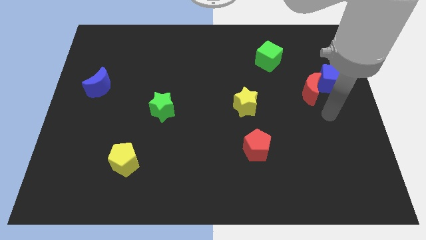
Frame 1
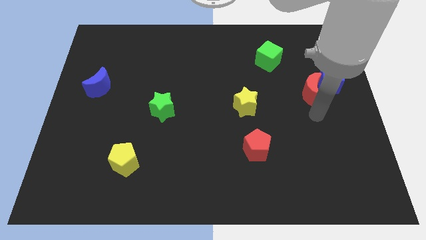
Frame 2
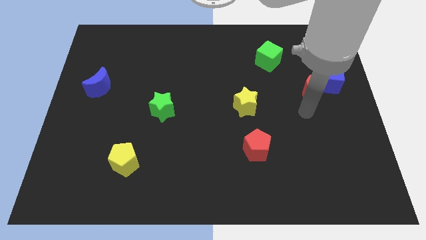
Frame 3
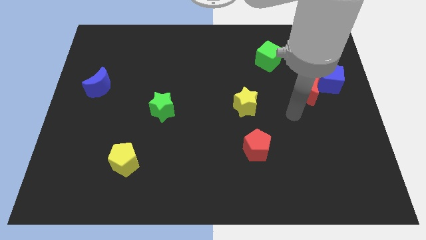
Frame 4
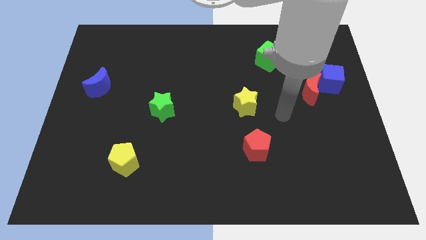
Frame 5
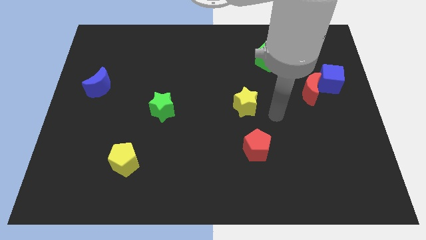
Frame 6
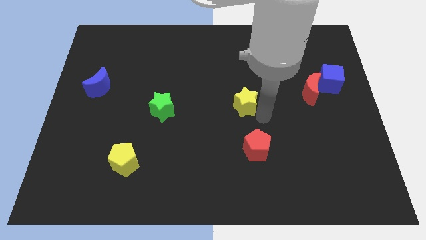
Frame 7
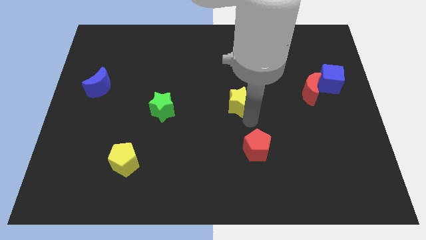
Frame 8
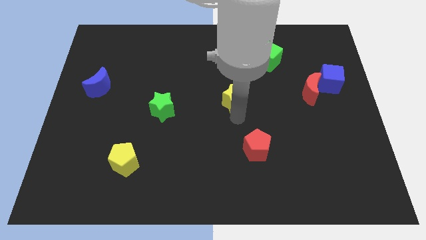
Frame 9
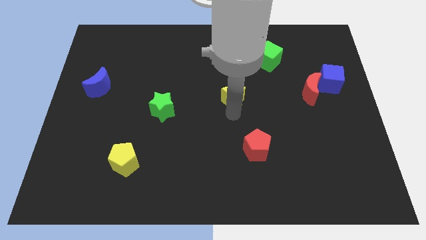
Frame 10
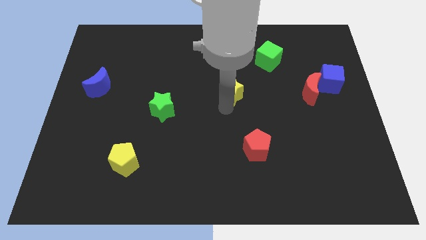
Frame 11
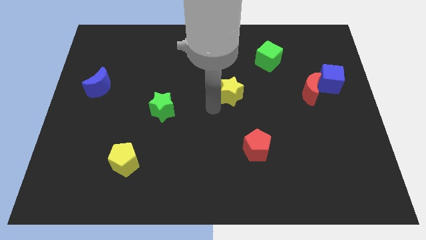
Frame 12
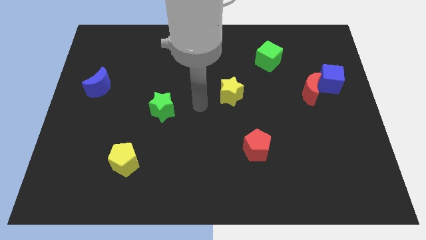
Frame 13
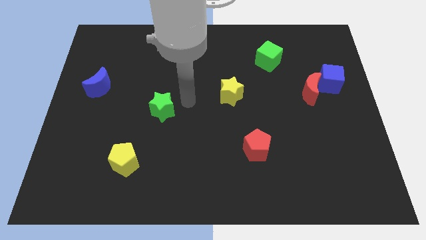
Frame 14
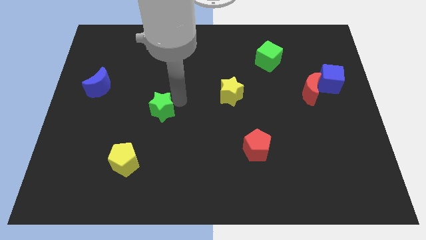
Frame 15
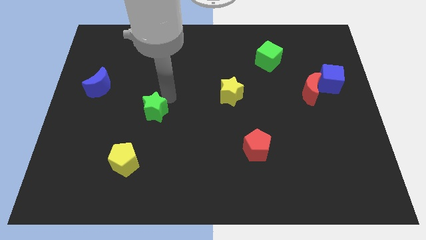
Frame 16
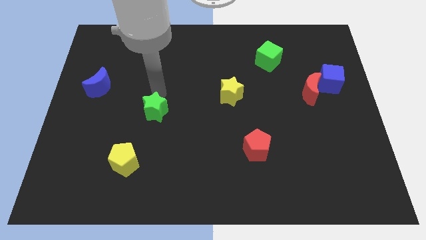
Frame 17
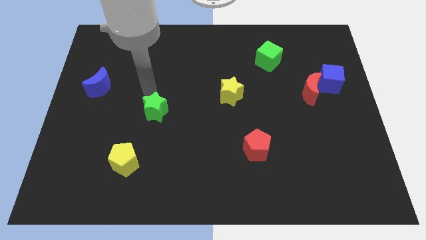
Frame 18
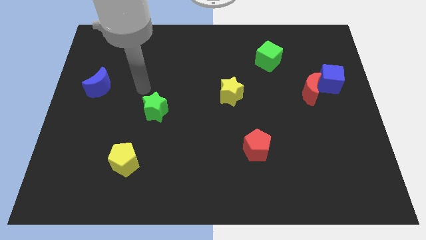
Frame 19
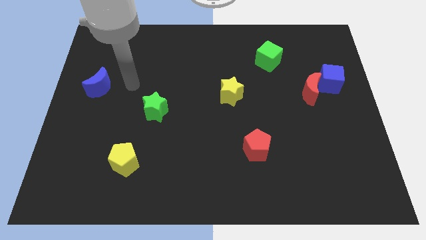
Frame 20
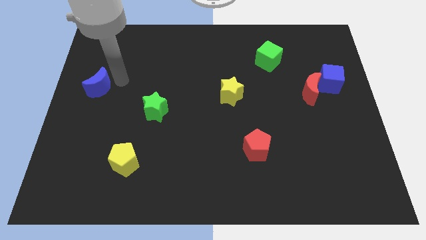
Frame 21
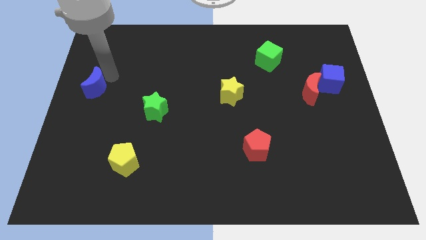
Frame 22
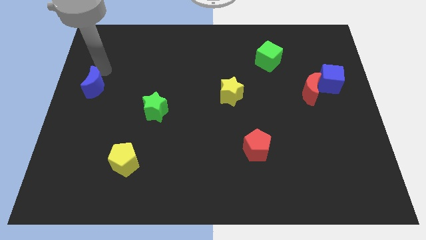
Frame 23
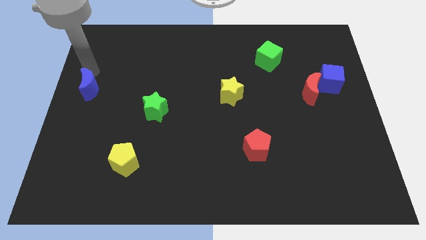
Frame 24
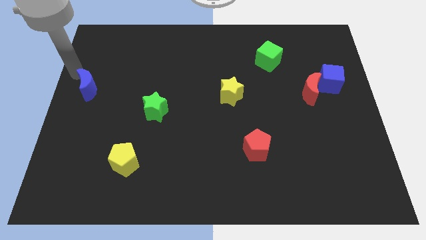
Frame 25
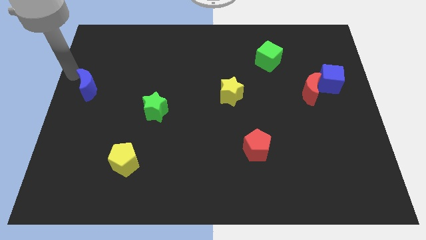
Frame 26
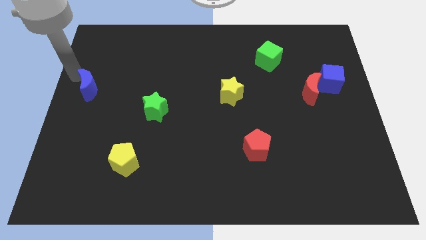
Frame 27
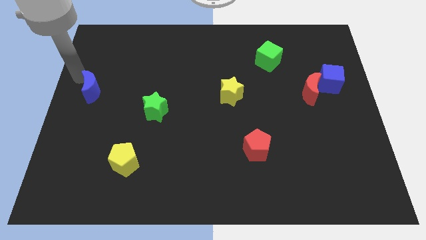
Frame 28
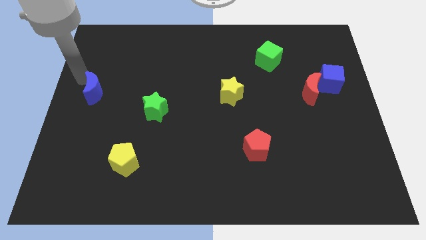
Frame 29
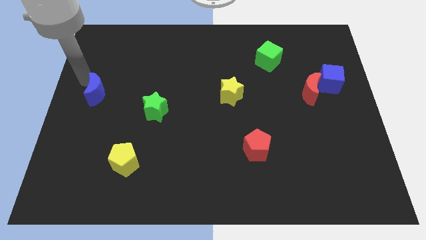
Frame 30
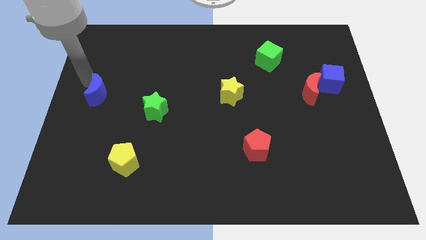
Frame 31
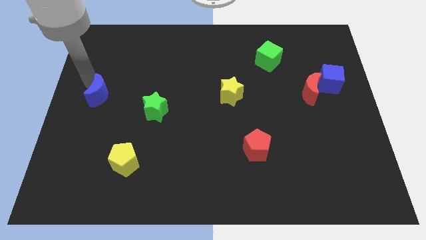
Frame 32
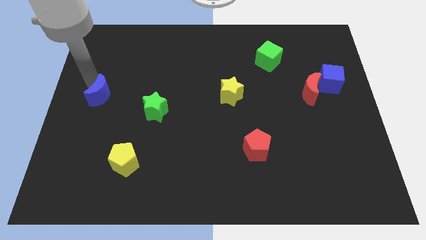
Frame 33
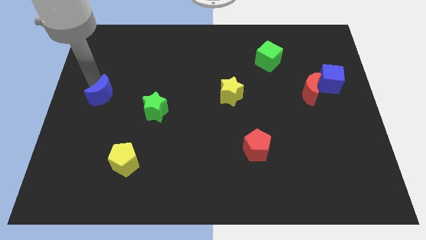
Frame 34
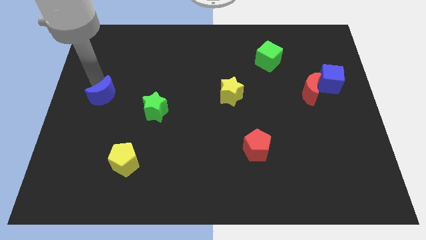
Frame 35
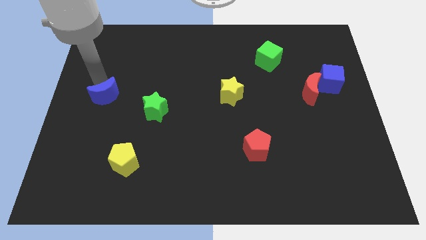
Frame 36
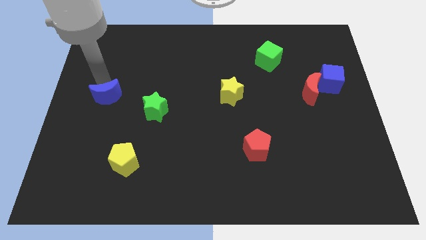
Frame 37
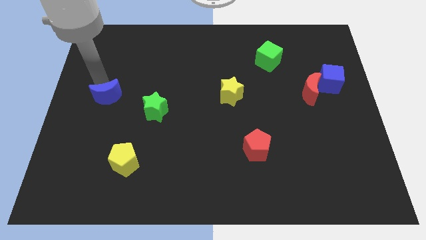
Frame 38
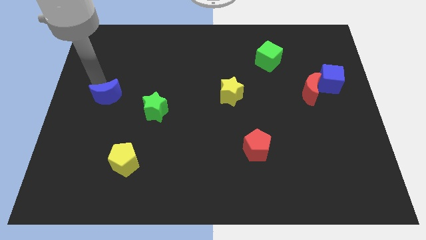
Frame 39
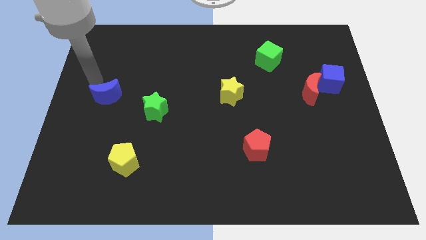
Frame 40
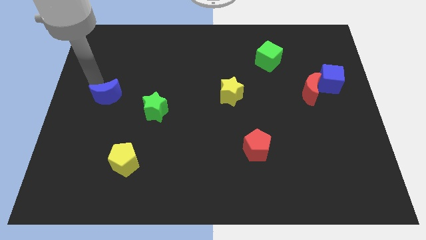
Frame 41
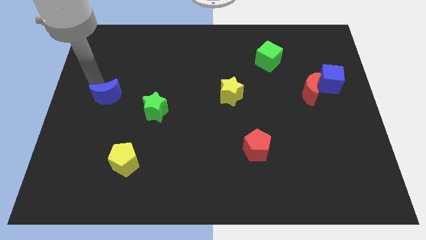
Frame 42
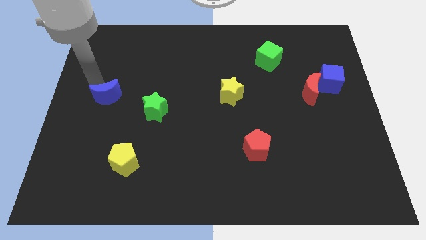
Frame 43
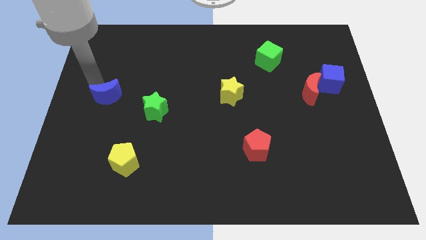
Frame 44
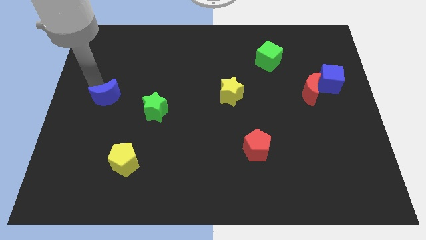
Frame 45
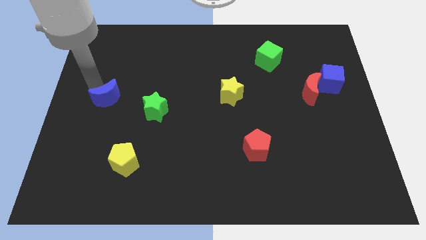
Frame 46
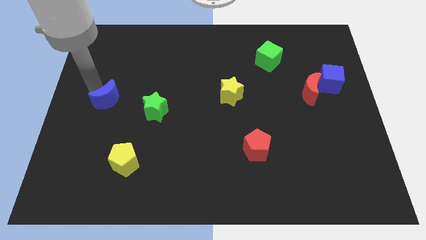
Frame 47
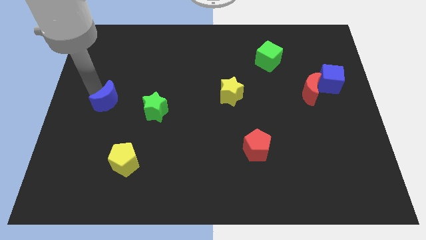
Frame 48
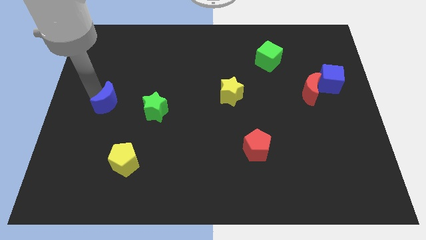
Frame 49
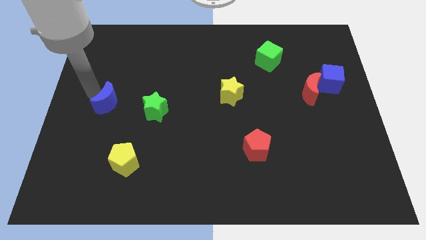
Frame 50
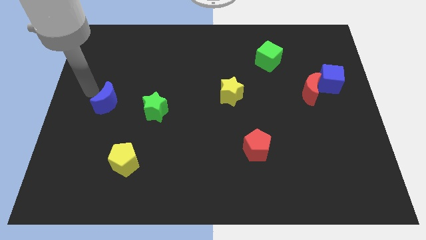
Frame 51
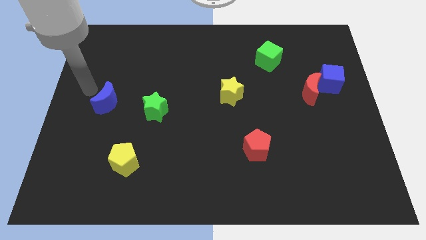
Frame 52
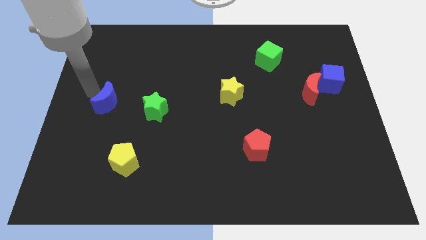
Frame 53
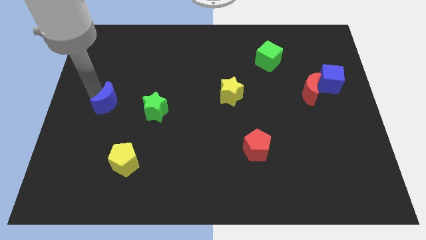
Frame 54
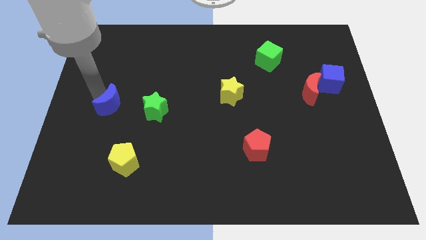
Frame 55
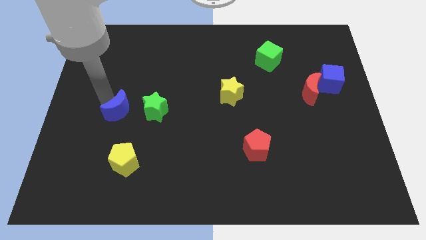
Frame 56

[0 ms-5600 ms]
push the blue moon down and right a little bit

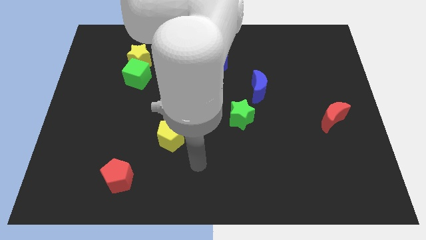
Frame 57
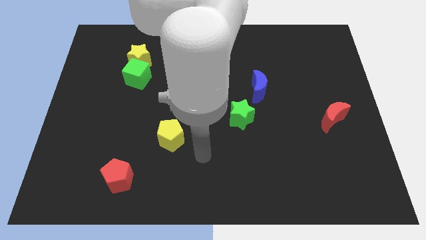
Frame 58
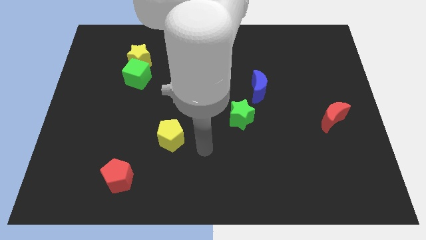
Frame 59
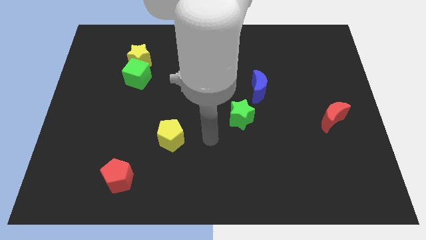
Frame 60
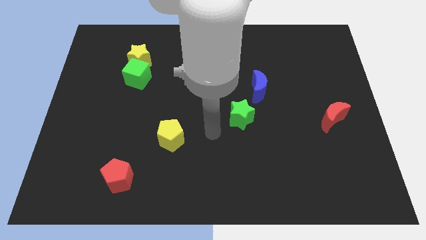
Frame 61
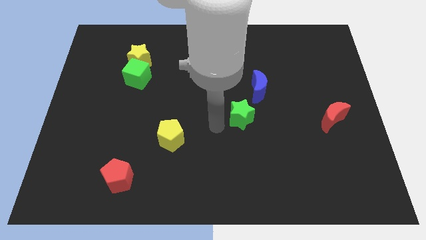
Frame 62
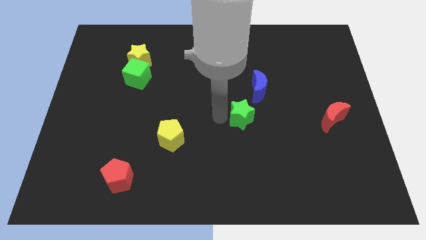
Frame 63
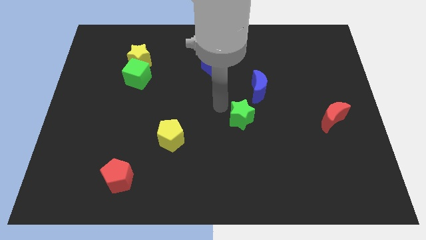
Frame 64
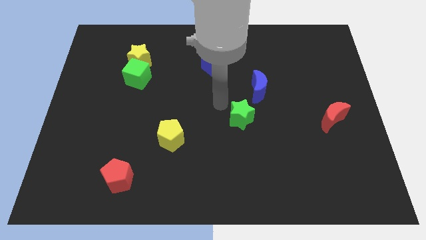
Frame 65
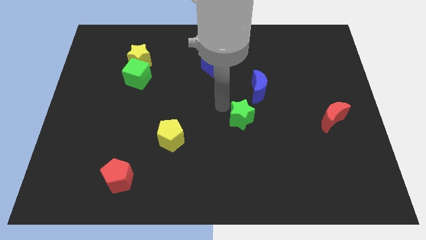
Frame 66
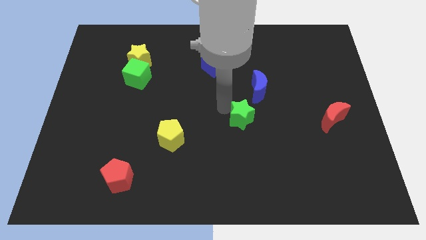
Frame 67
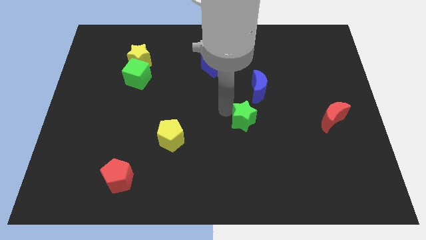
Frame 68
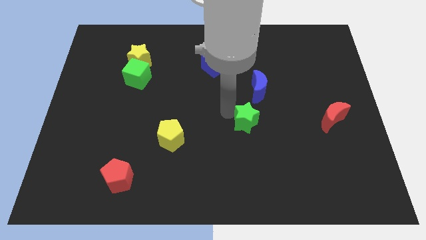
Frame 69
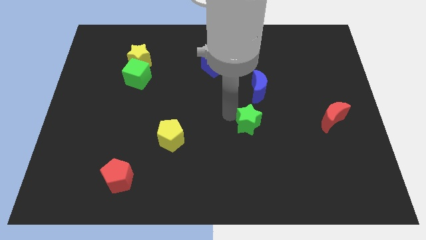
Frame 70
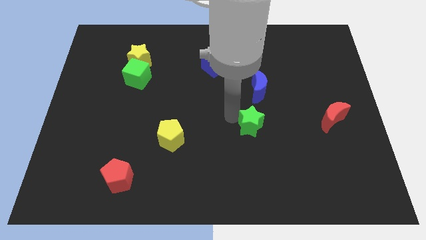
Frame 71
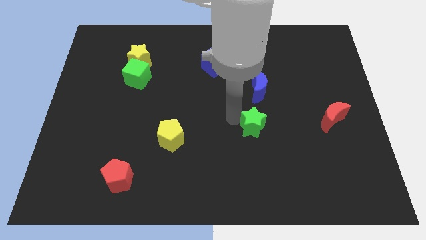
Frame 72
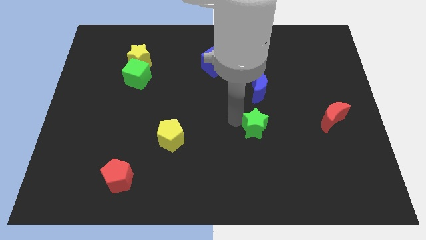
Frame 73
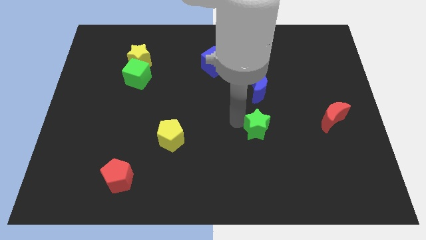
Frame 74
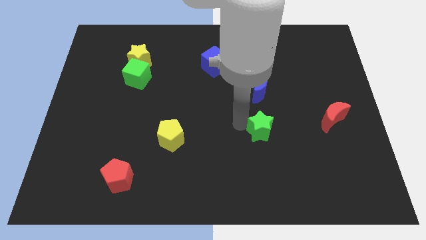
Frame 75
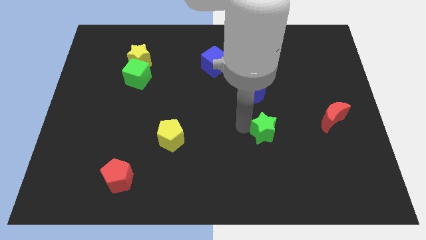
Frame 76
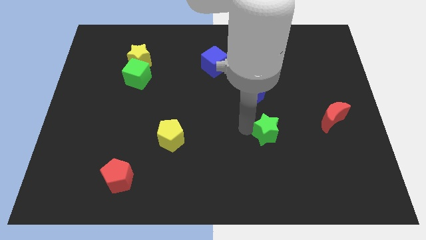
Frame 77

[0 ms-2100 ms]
slide the green star downwards and to the right diagonally a little bit

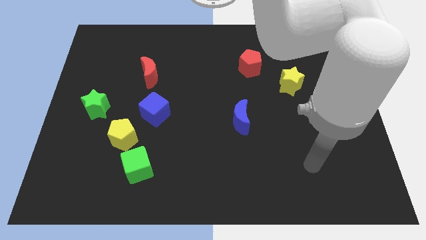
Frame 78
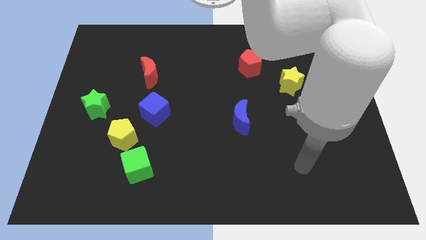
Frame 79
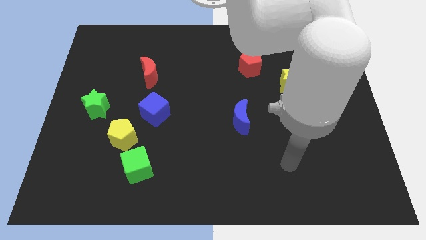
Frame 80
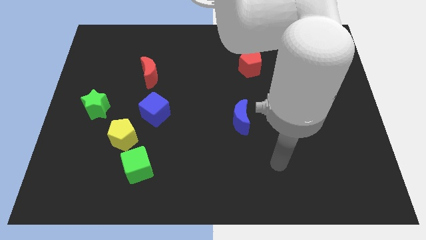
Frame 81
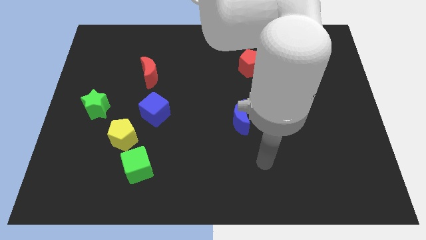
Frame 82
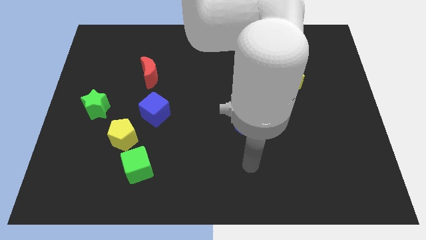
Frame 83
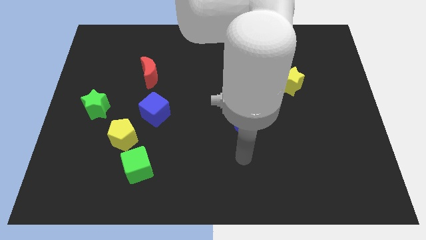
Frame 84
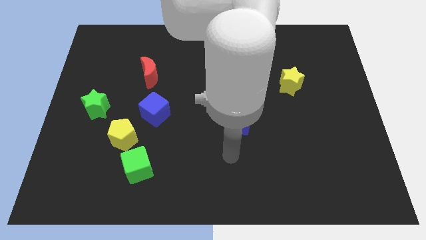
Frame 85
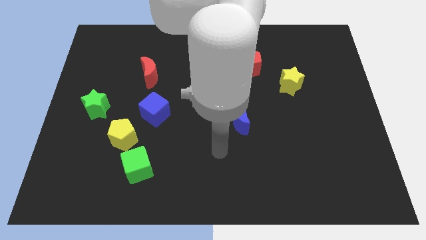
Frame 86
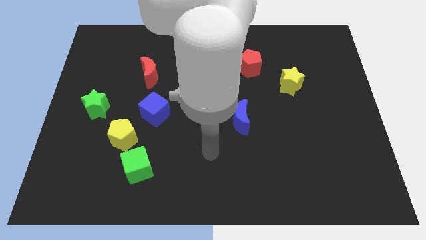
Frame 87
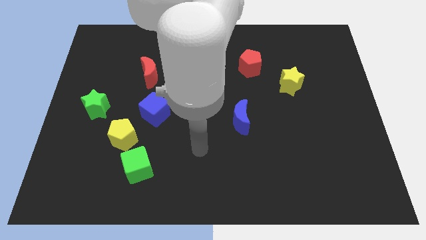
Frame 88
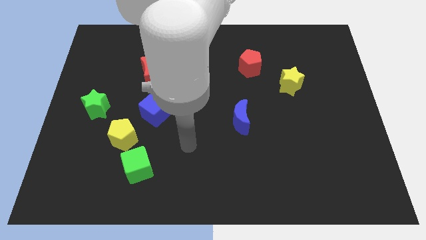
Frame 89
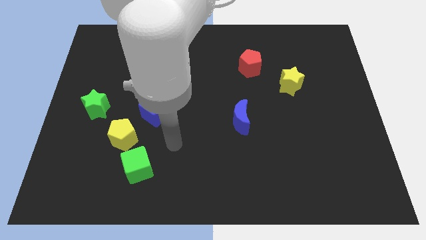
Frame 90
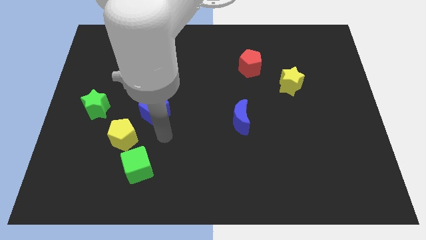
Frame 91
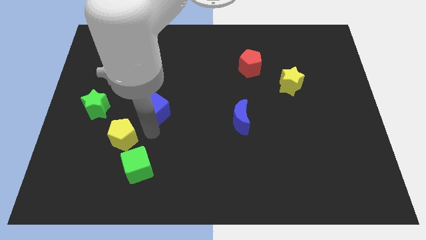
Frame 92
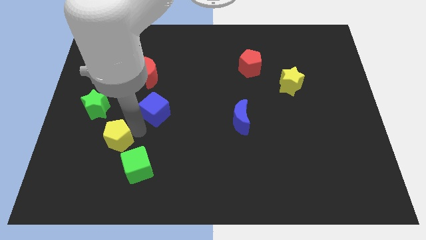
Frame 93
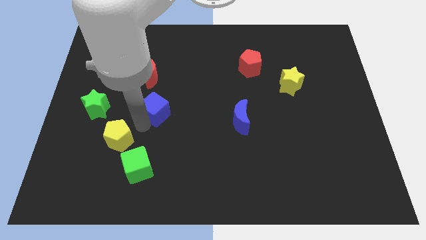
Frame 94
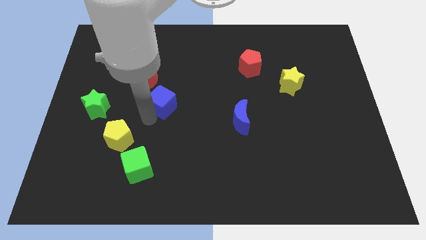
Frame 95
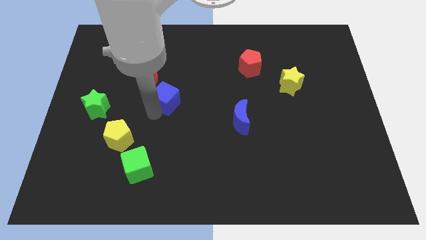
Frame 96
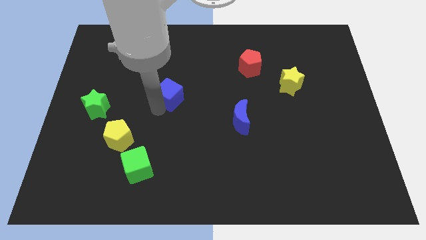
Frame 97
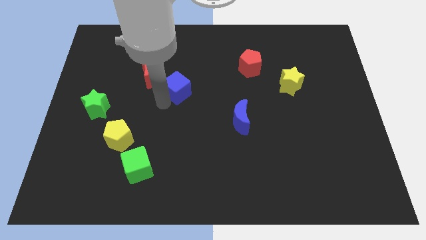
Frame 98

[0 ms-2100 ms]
push the blue cube a little bit upwards and right diagonally
